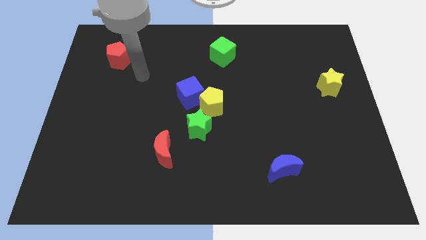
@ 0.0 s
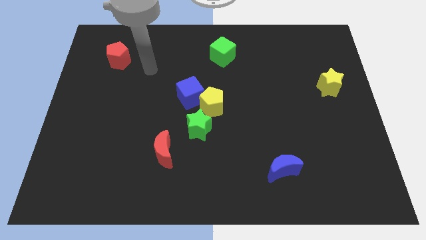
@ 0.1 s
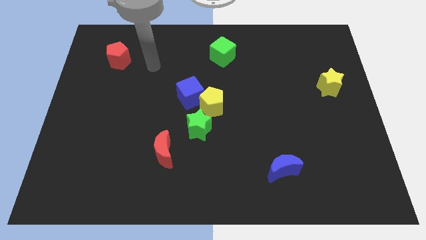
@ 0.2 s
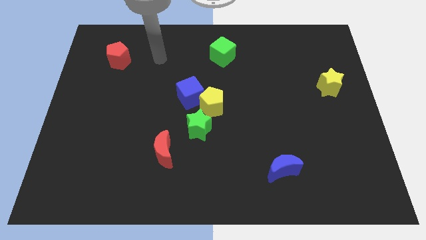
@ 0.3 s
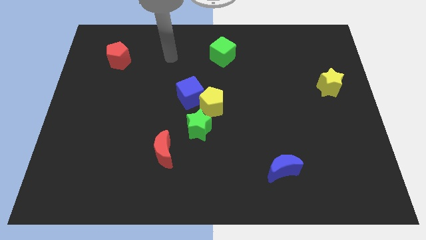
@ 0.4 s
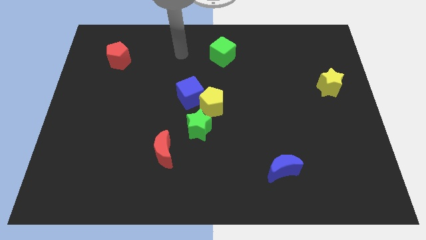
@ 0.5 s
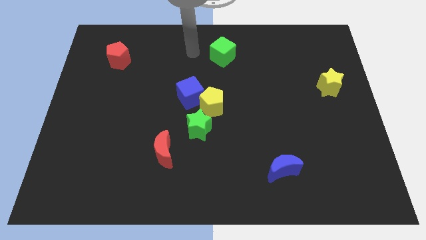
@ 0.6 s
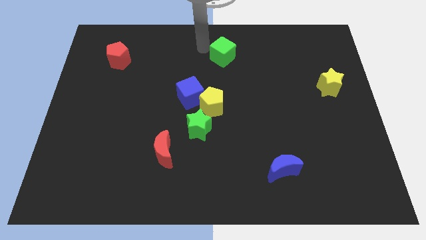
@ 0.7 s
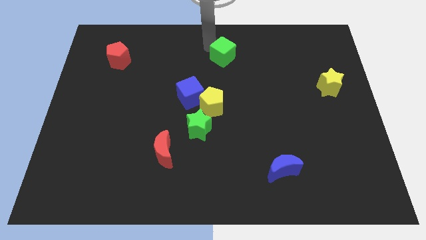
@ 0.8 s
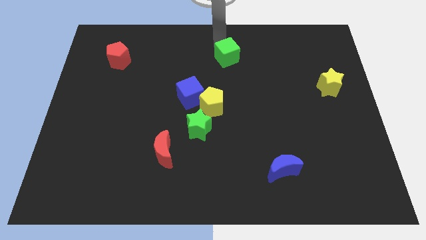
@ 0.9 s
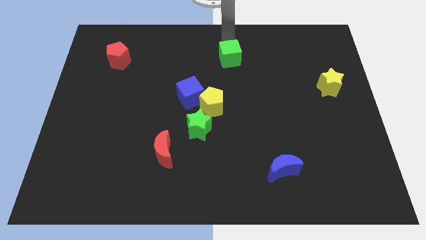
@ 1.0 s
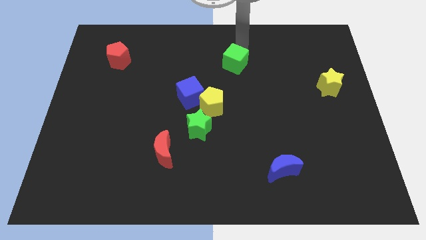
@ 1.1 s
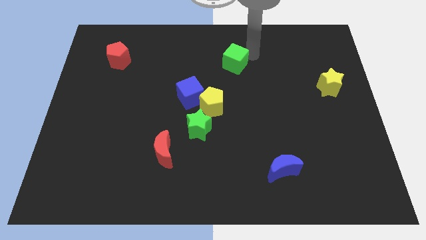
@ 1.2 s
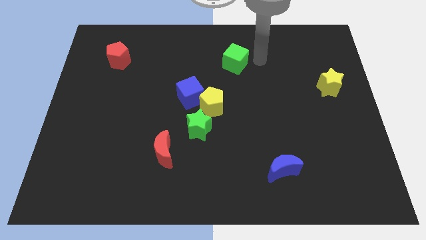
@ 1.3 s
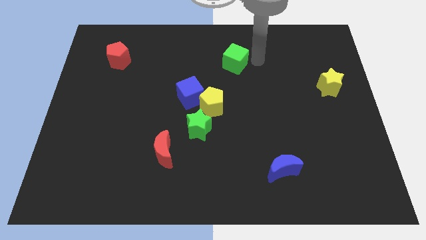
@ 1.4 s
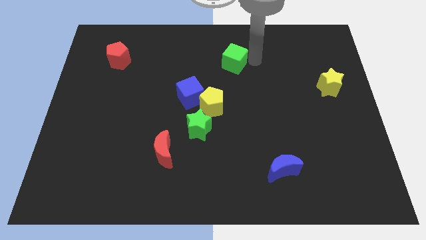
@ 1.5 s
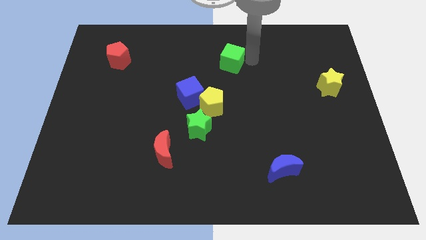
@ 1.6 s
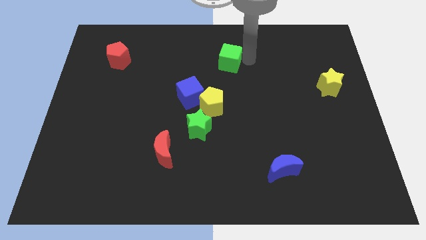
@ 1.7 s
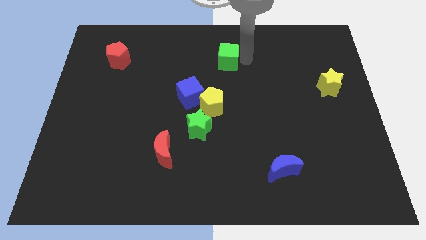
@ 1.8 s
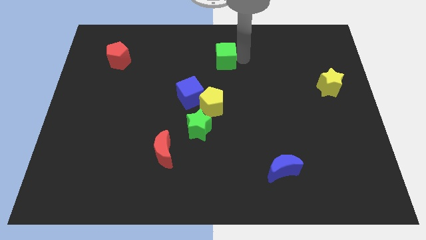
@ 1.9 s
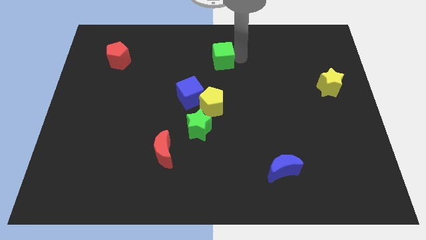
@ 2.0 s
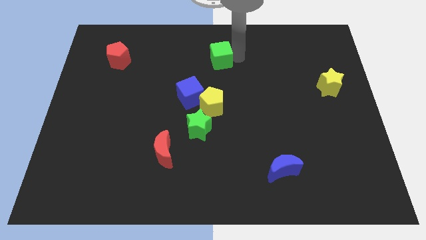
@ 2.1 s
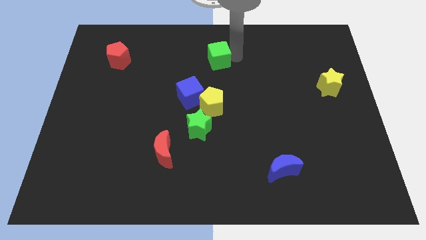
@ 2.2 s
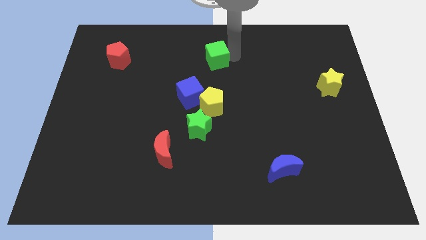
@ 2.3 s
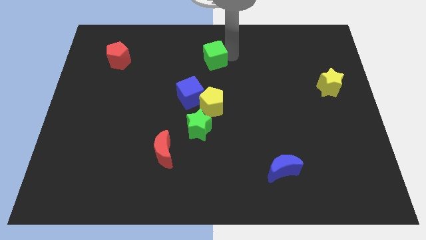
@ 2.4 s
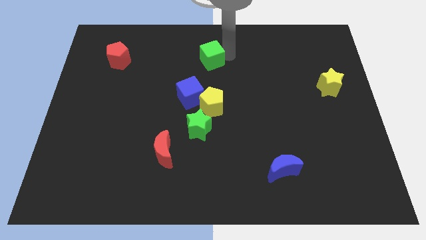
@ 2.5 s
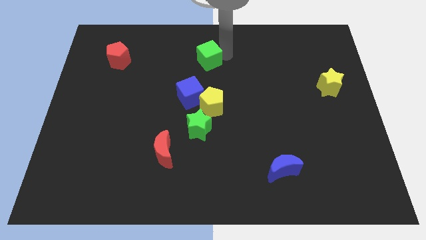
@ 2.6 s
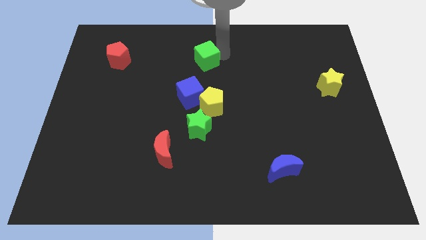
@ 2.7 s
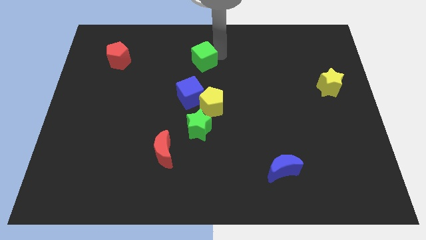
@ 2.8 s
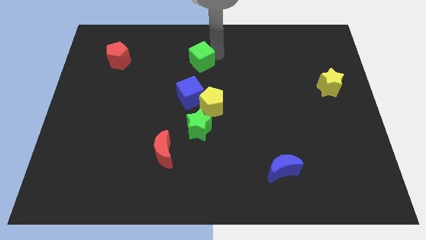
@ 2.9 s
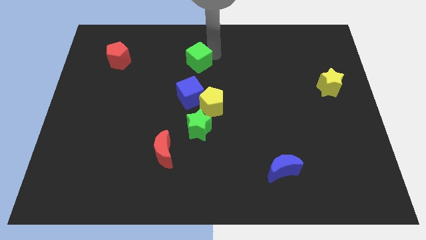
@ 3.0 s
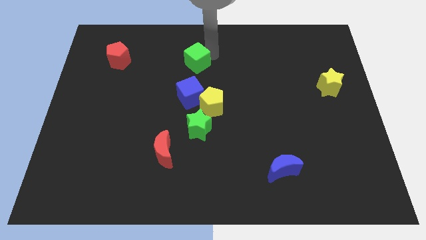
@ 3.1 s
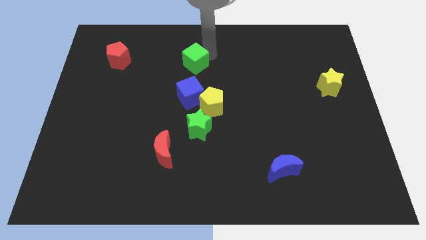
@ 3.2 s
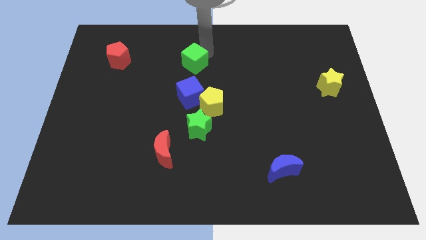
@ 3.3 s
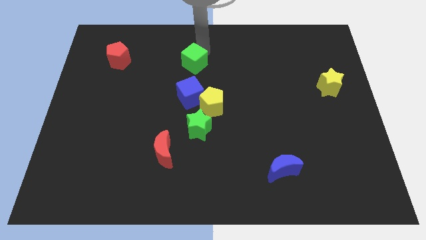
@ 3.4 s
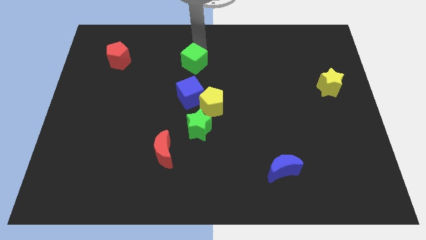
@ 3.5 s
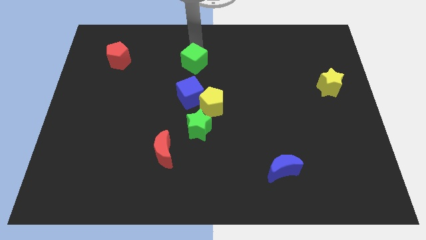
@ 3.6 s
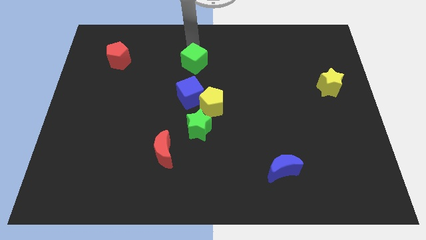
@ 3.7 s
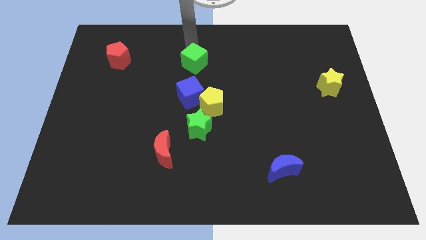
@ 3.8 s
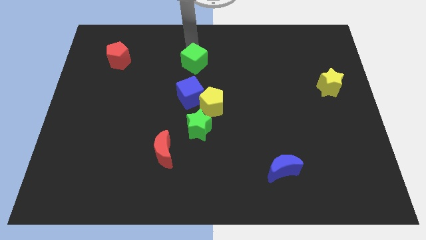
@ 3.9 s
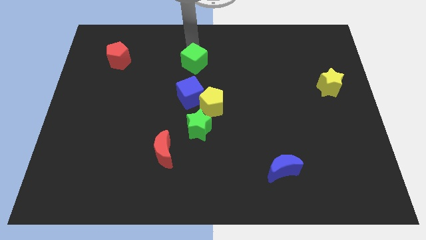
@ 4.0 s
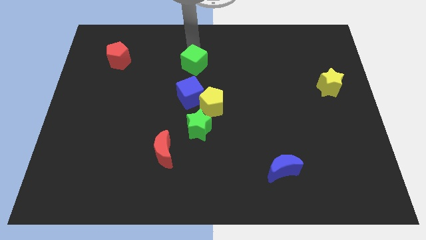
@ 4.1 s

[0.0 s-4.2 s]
move the green cube down and to the left a bit

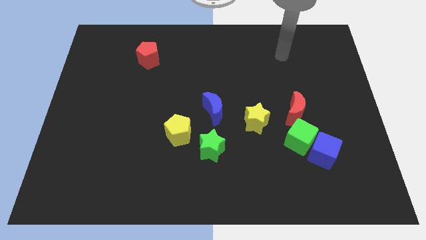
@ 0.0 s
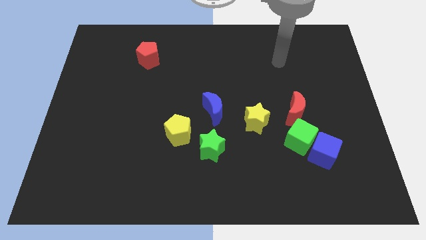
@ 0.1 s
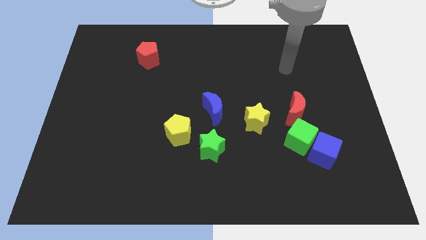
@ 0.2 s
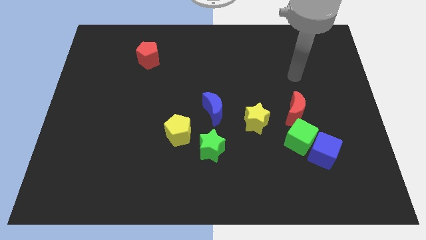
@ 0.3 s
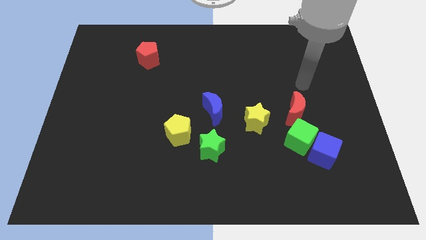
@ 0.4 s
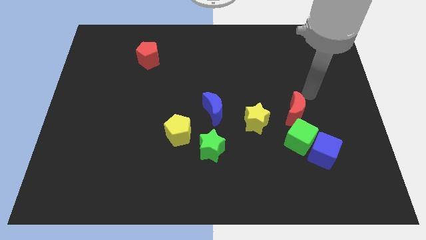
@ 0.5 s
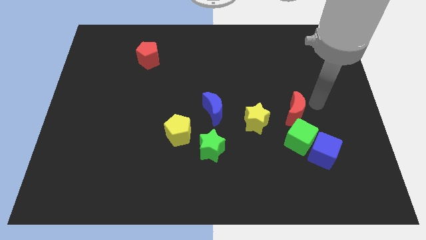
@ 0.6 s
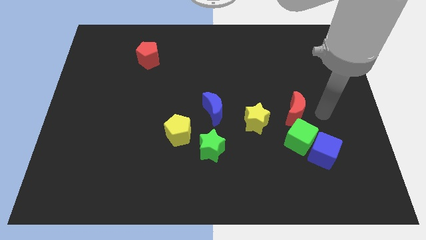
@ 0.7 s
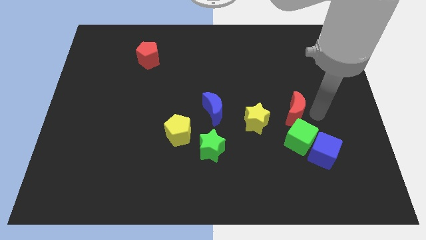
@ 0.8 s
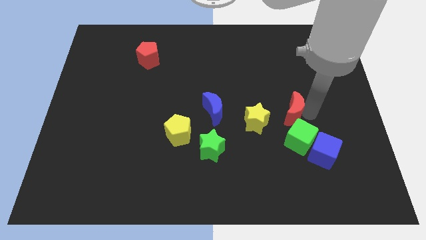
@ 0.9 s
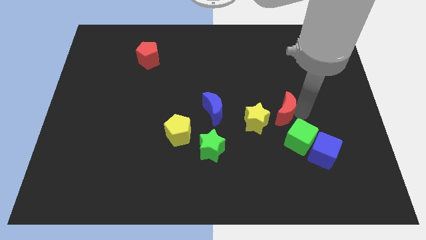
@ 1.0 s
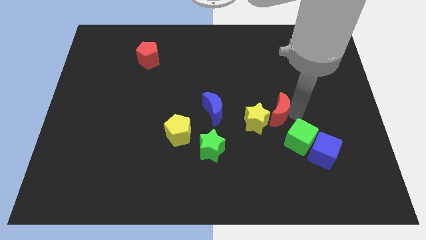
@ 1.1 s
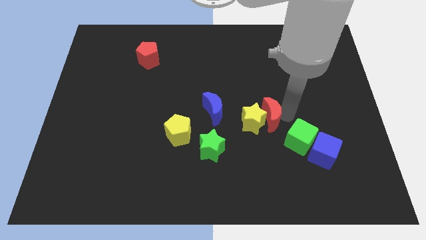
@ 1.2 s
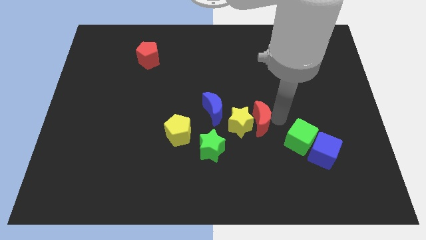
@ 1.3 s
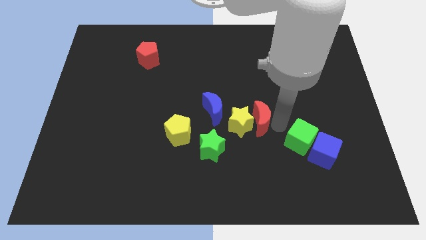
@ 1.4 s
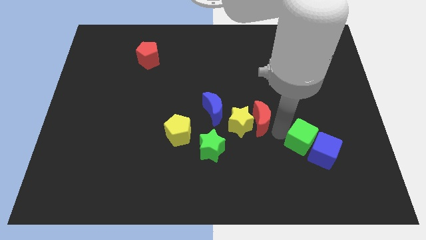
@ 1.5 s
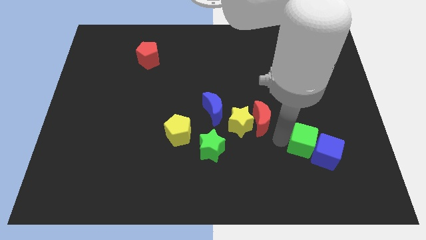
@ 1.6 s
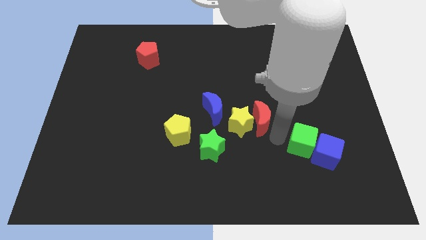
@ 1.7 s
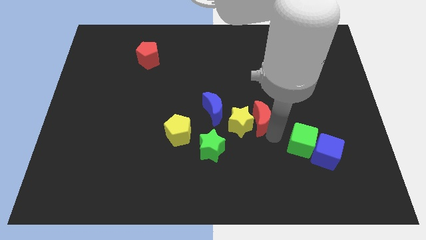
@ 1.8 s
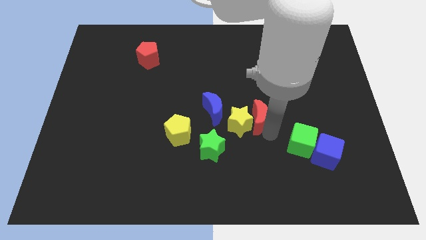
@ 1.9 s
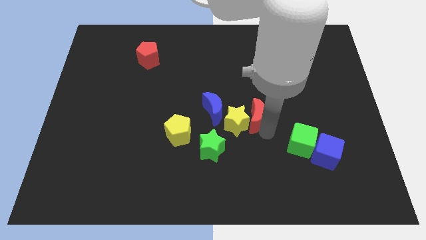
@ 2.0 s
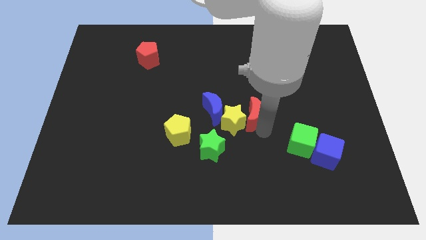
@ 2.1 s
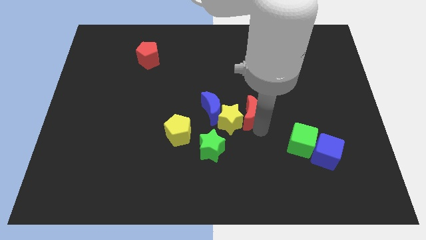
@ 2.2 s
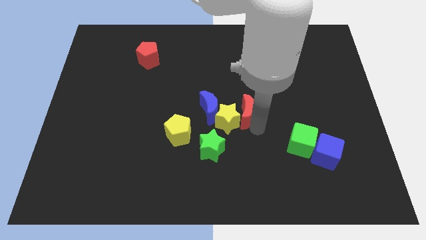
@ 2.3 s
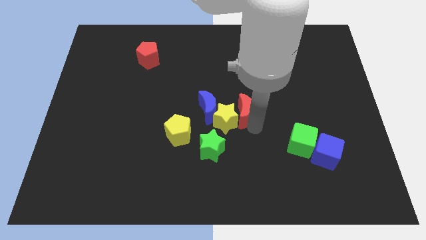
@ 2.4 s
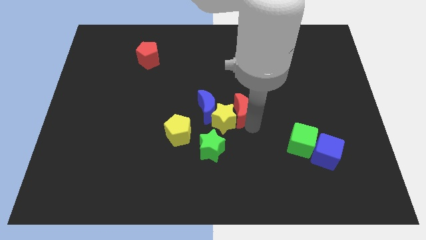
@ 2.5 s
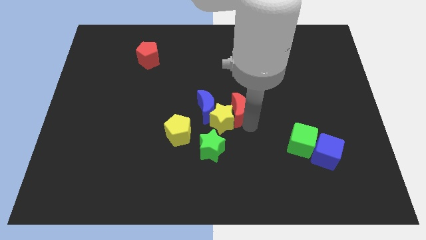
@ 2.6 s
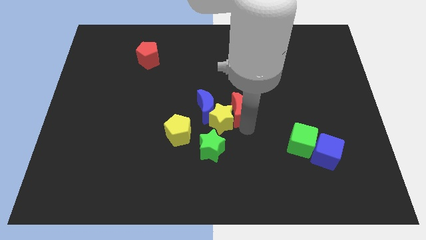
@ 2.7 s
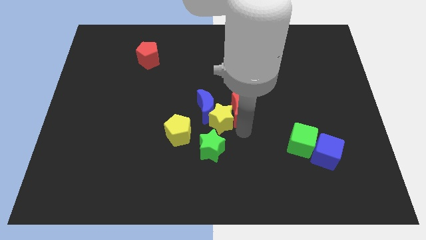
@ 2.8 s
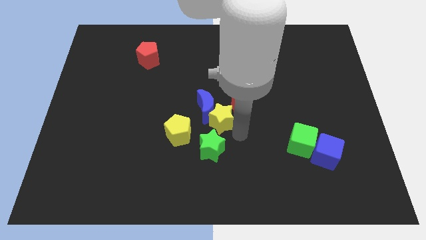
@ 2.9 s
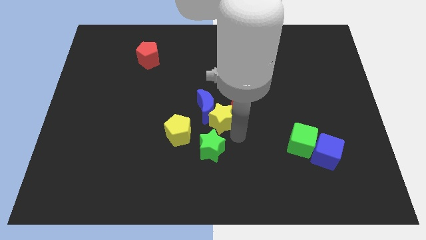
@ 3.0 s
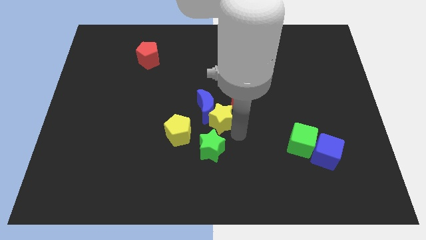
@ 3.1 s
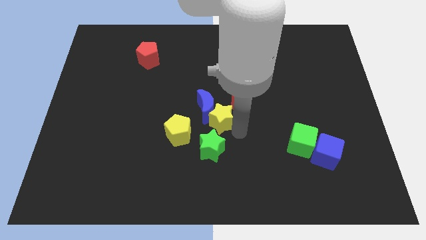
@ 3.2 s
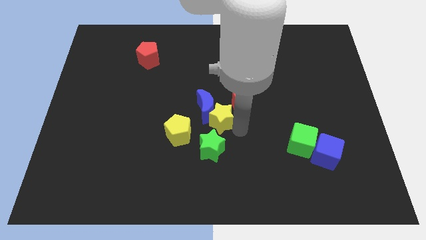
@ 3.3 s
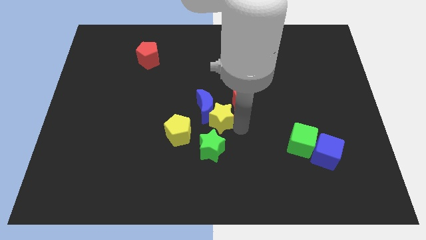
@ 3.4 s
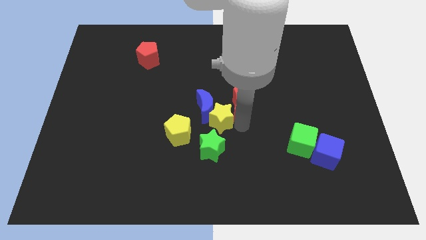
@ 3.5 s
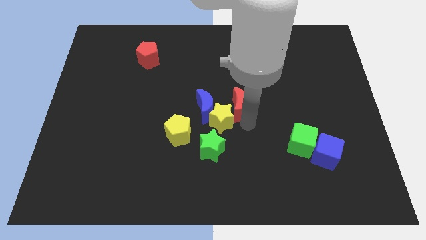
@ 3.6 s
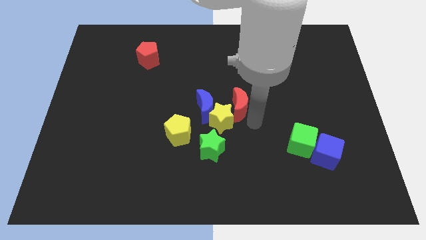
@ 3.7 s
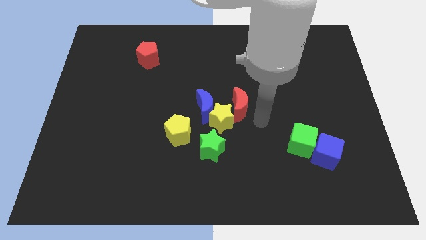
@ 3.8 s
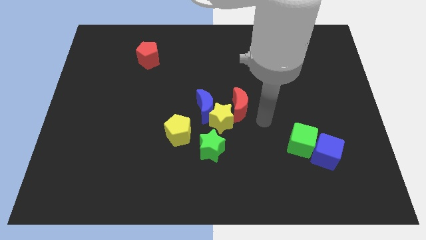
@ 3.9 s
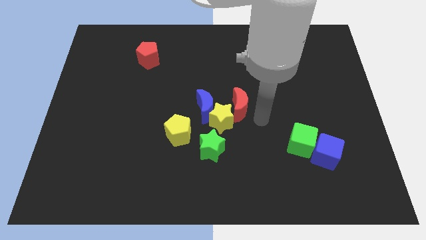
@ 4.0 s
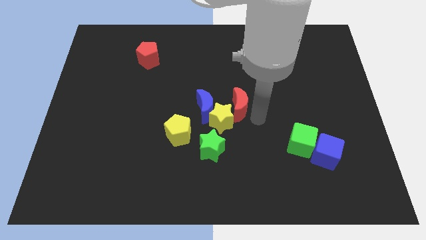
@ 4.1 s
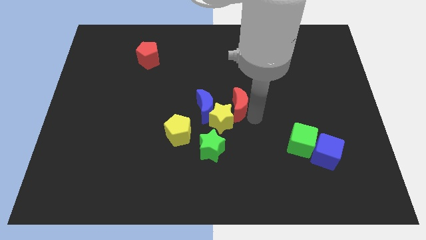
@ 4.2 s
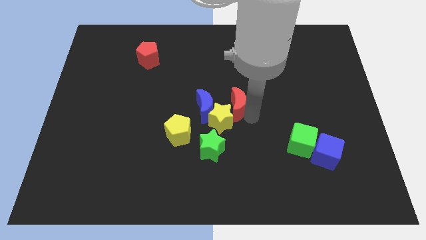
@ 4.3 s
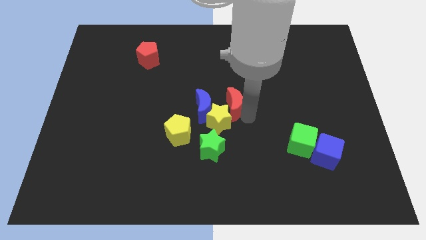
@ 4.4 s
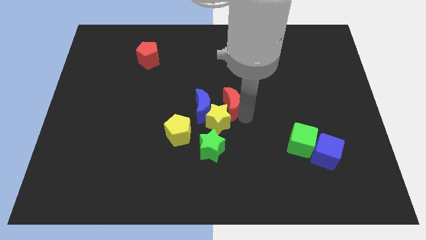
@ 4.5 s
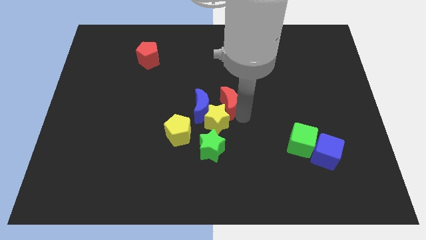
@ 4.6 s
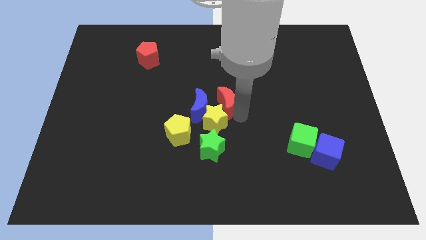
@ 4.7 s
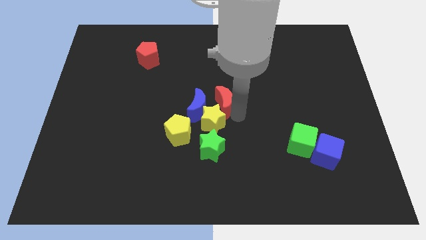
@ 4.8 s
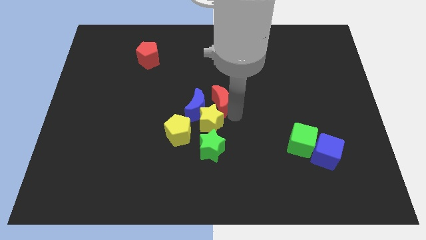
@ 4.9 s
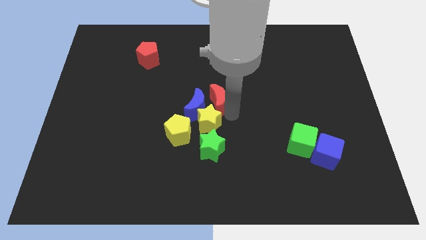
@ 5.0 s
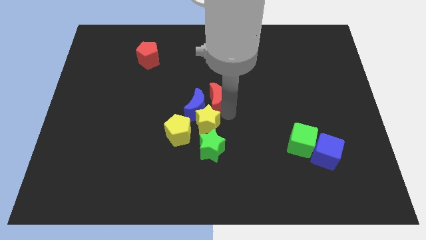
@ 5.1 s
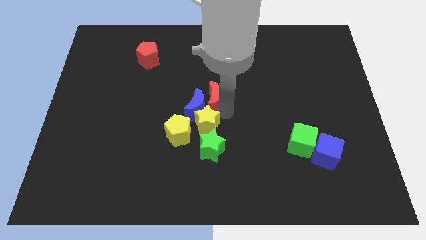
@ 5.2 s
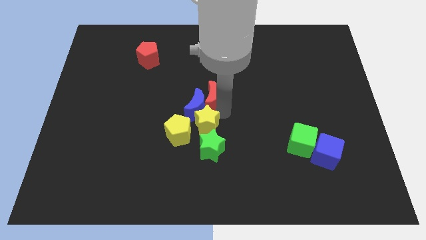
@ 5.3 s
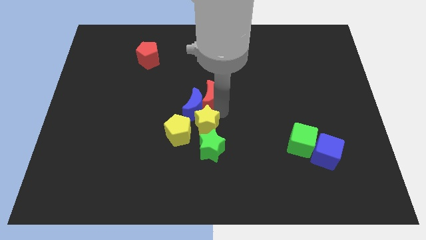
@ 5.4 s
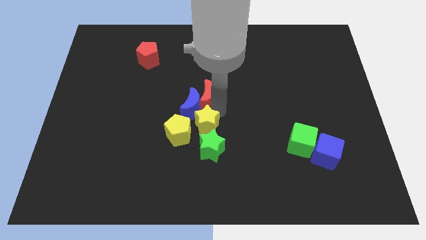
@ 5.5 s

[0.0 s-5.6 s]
slide the red moon to the left
